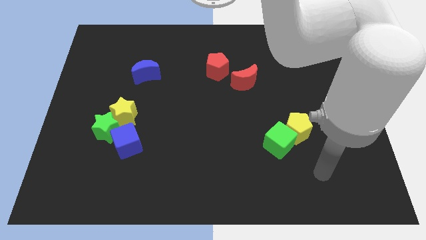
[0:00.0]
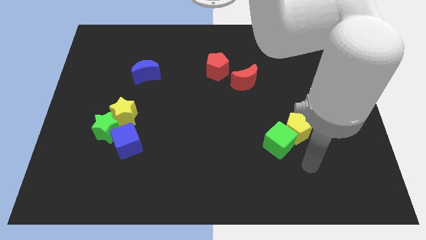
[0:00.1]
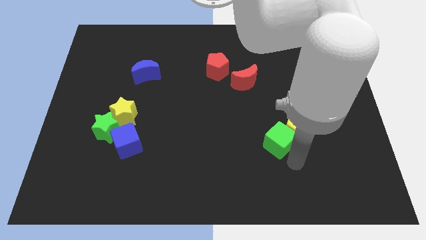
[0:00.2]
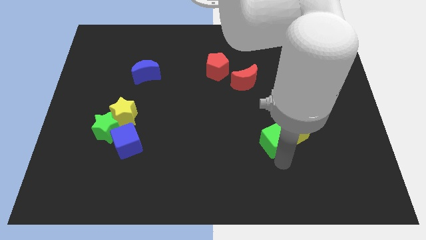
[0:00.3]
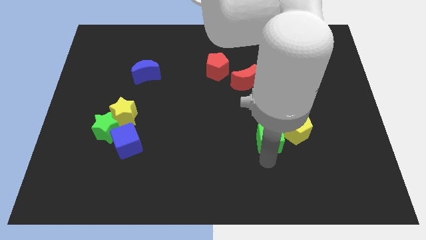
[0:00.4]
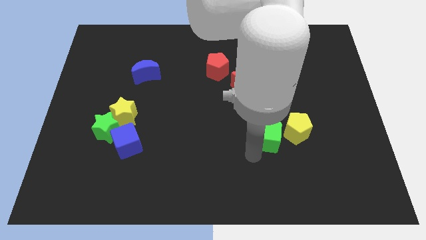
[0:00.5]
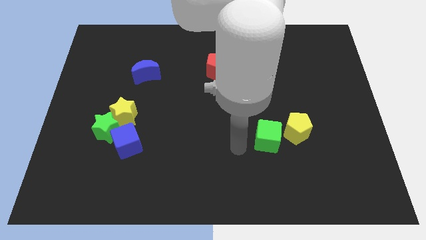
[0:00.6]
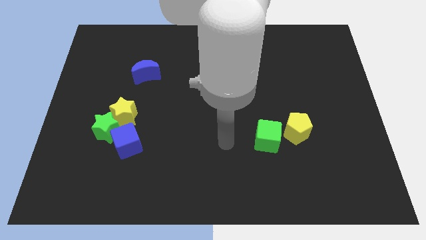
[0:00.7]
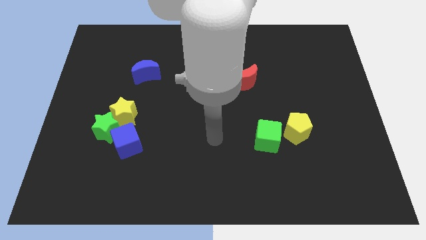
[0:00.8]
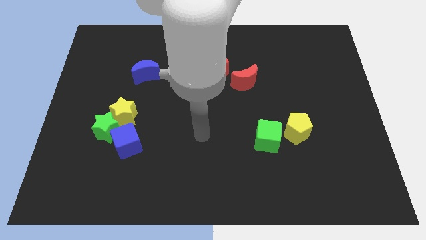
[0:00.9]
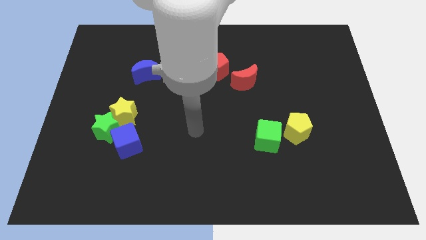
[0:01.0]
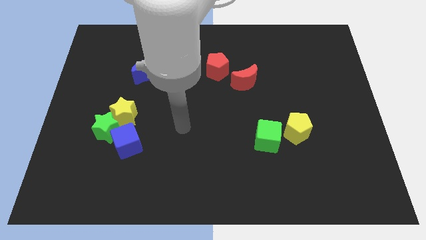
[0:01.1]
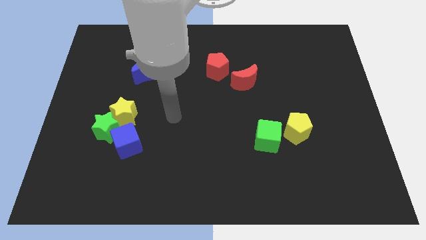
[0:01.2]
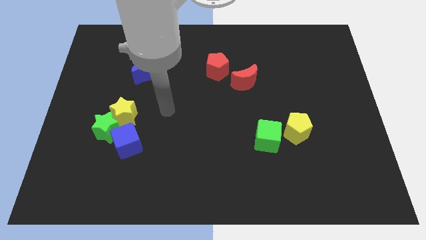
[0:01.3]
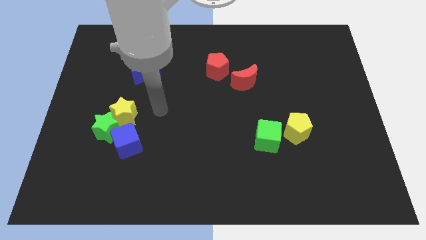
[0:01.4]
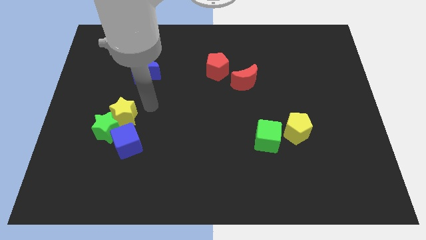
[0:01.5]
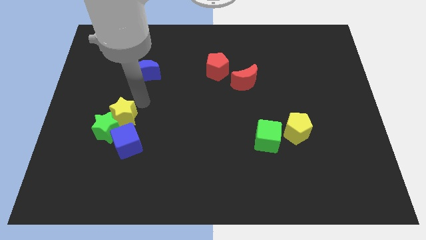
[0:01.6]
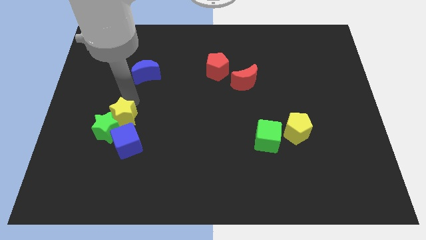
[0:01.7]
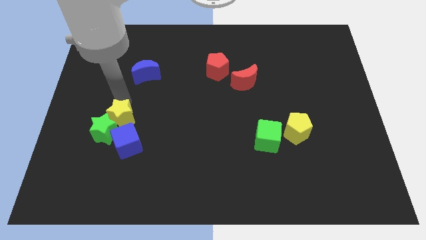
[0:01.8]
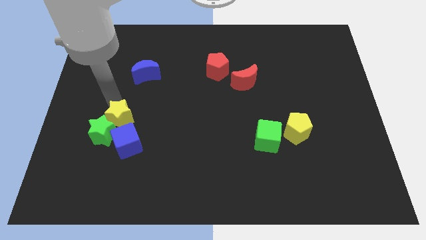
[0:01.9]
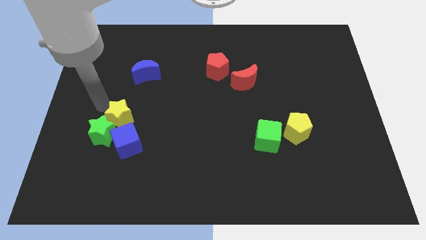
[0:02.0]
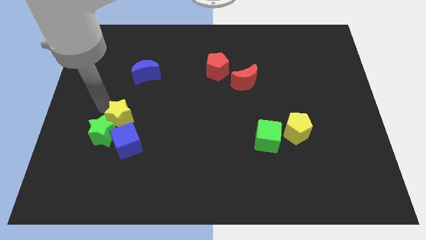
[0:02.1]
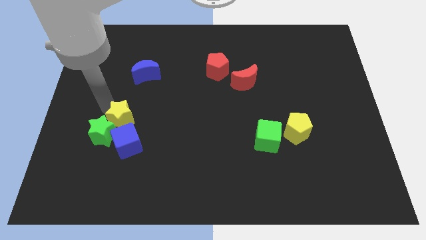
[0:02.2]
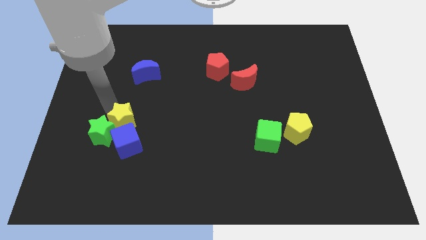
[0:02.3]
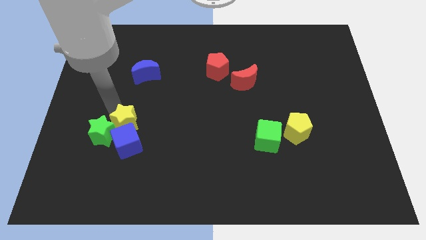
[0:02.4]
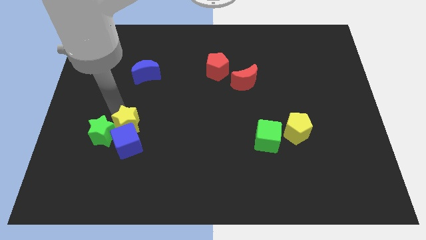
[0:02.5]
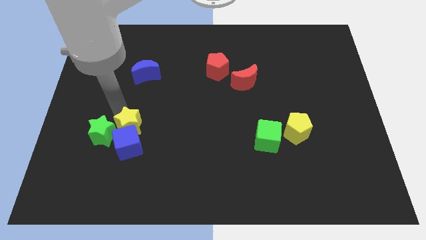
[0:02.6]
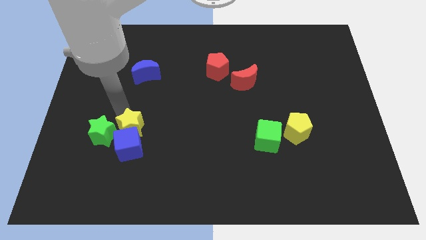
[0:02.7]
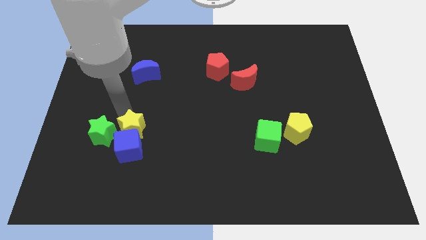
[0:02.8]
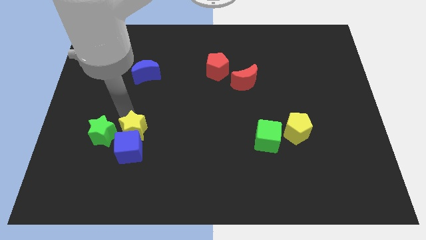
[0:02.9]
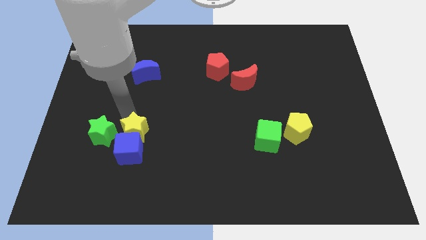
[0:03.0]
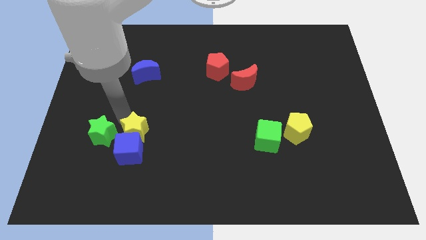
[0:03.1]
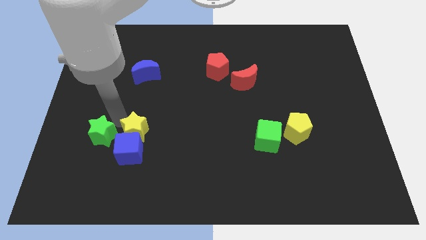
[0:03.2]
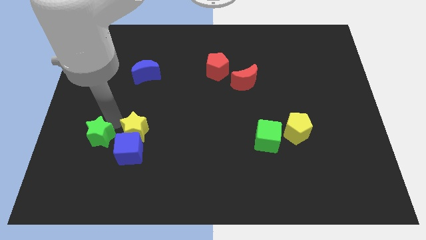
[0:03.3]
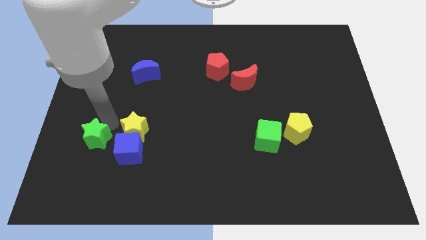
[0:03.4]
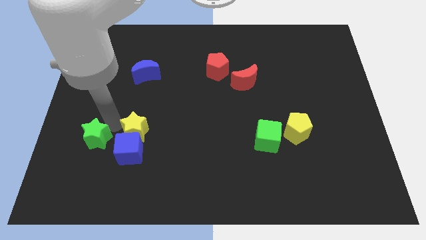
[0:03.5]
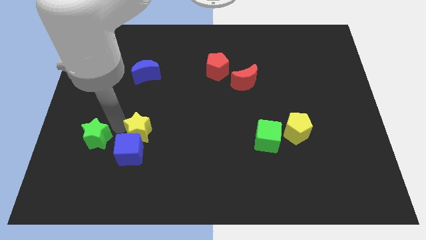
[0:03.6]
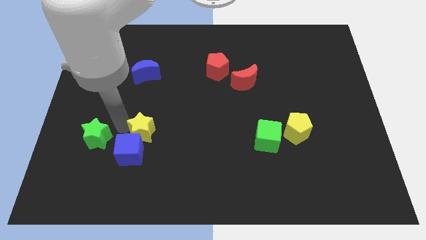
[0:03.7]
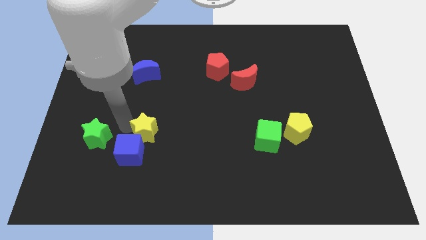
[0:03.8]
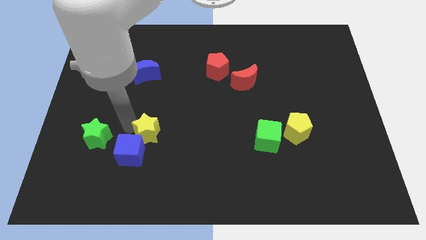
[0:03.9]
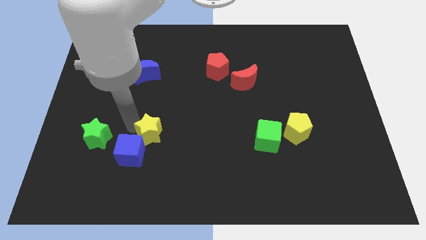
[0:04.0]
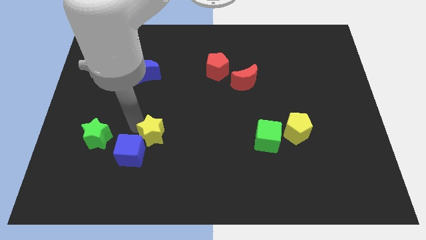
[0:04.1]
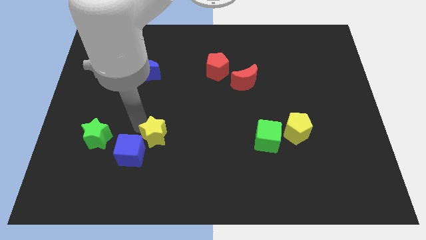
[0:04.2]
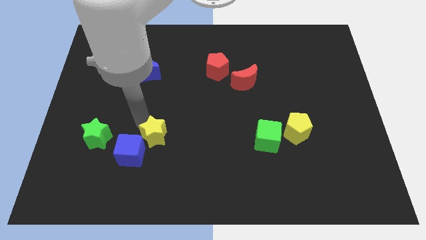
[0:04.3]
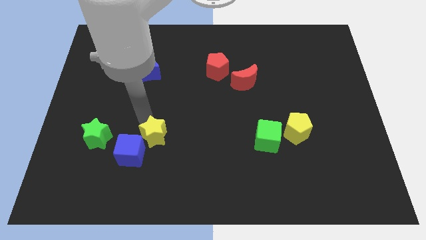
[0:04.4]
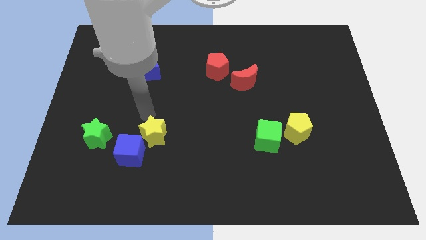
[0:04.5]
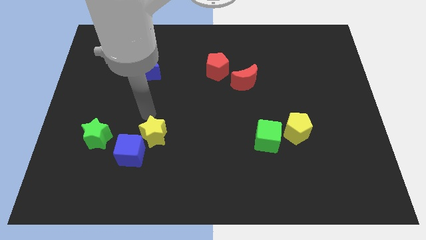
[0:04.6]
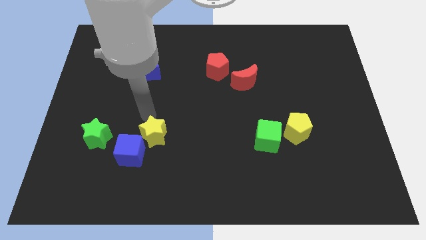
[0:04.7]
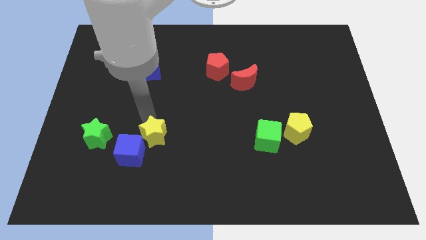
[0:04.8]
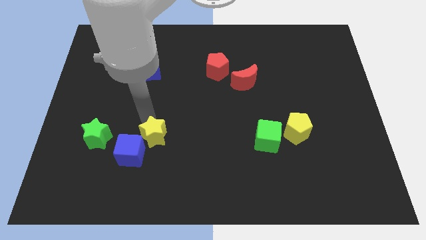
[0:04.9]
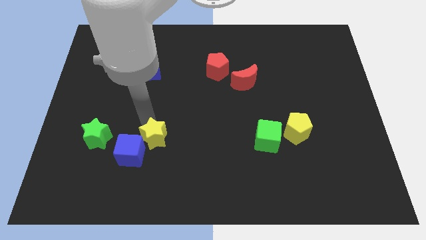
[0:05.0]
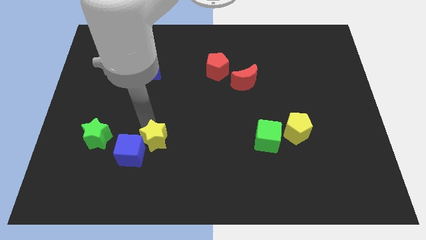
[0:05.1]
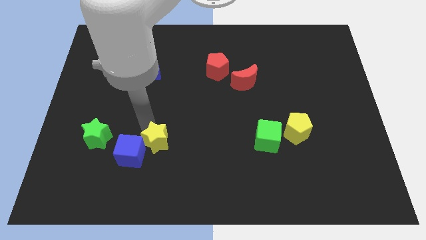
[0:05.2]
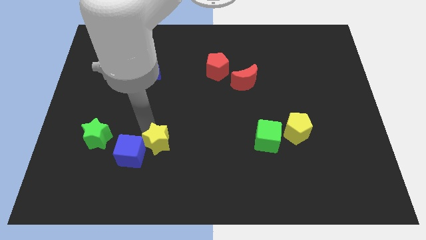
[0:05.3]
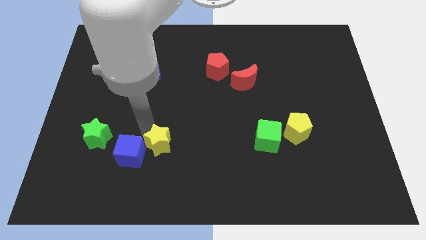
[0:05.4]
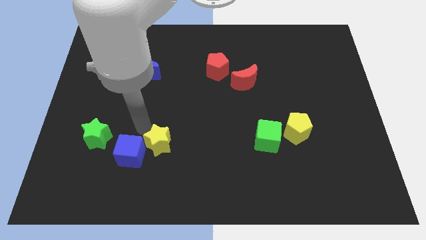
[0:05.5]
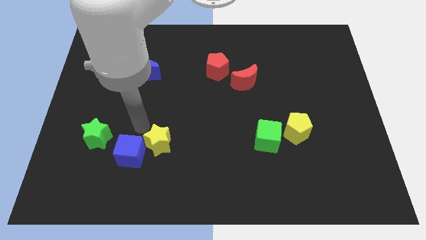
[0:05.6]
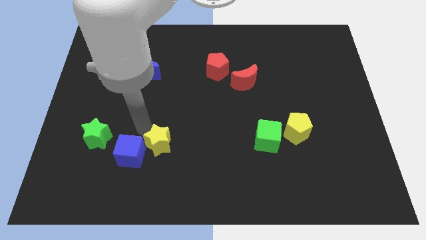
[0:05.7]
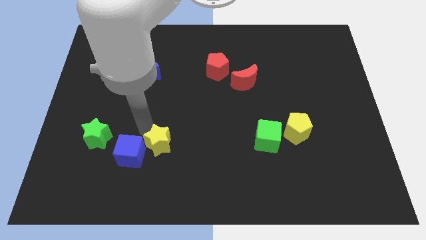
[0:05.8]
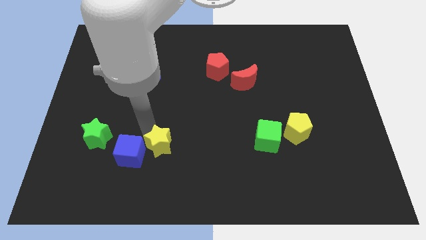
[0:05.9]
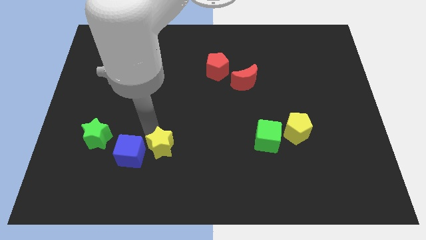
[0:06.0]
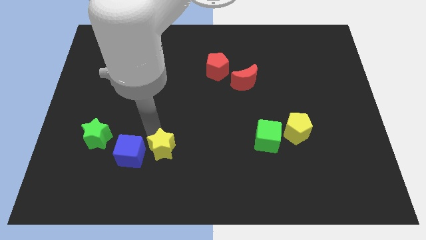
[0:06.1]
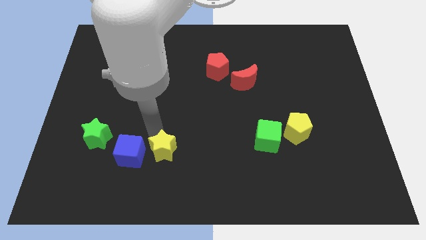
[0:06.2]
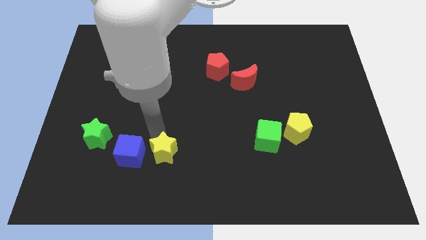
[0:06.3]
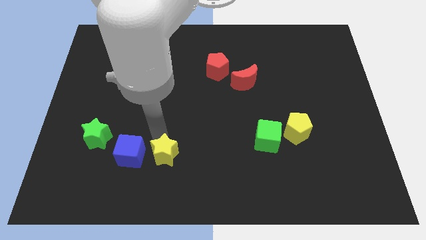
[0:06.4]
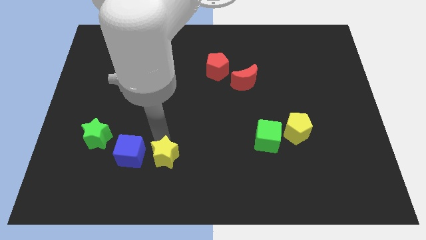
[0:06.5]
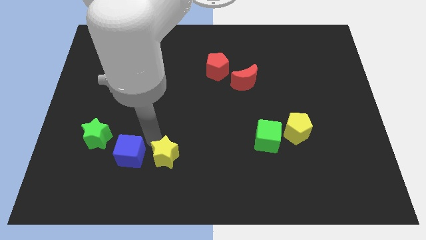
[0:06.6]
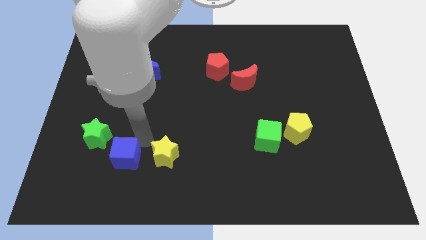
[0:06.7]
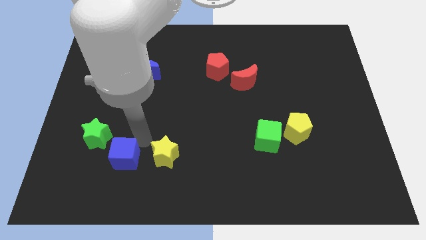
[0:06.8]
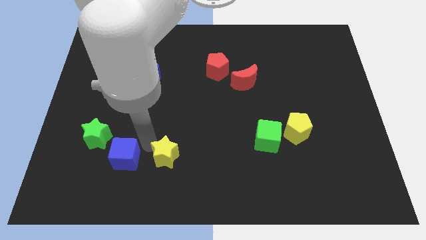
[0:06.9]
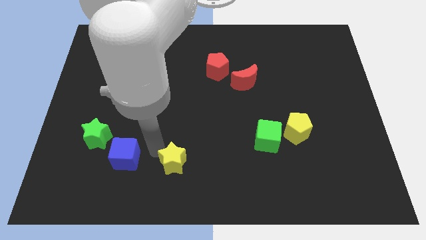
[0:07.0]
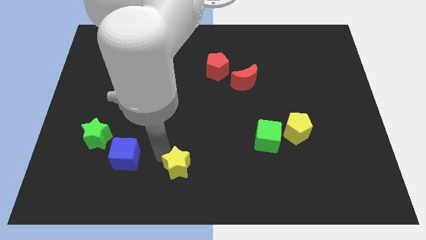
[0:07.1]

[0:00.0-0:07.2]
put the yellow star to the bottom

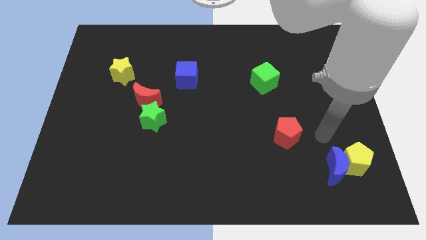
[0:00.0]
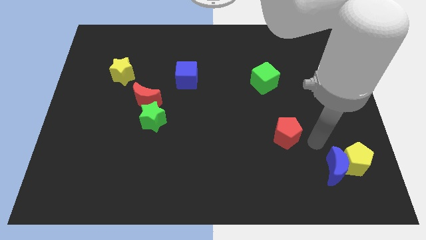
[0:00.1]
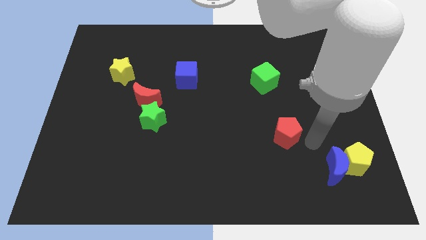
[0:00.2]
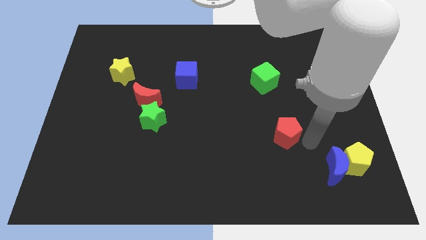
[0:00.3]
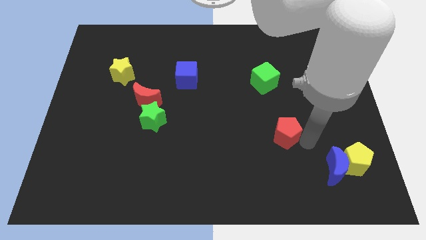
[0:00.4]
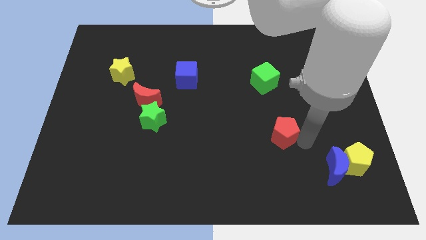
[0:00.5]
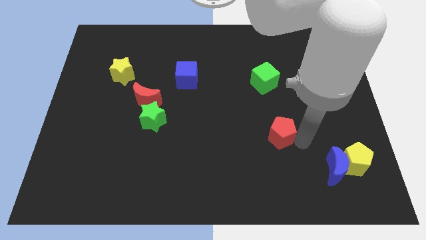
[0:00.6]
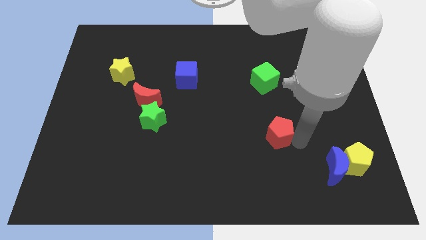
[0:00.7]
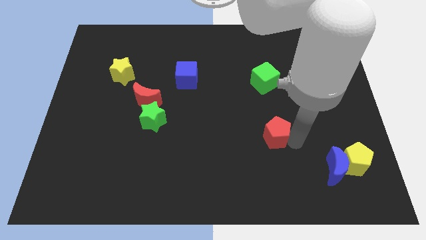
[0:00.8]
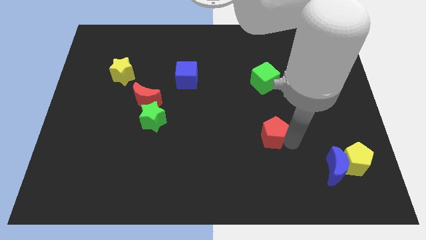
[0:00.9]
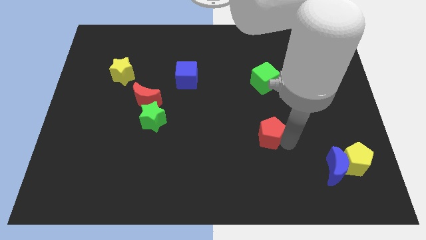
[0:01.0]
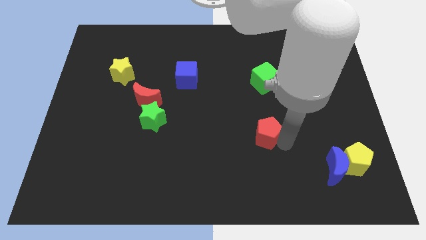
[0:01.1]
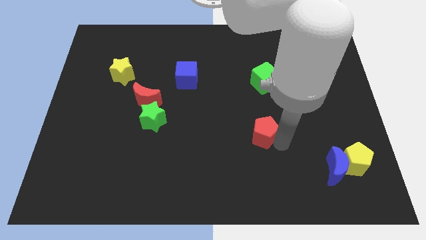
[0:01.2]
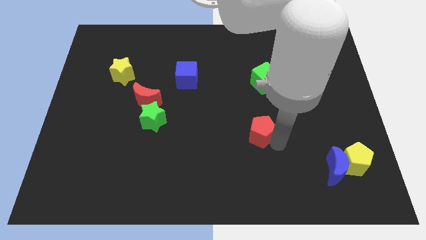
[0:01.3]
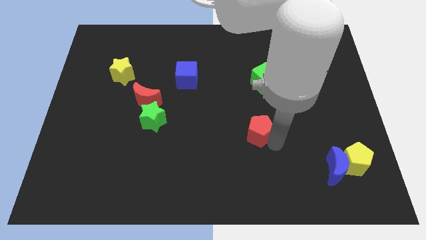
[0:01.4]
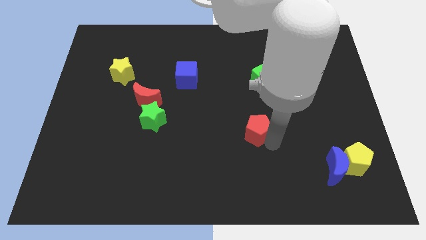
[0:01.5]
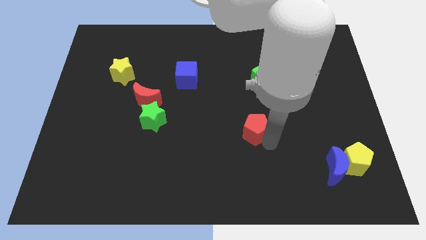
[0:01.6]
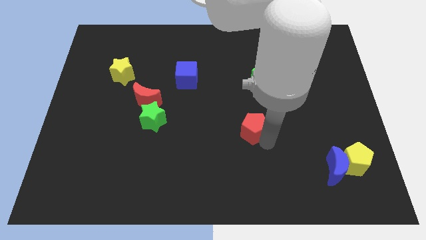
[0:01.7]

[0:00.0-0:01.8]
put the red pentagon to the center
